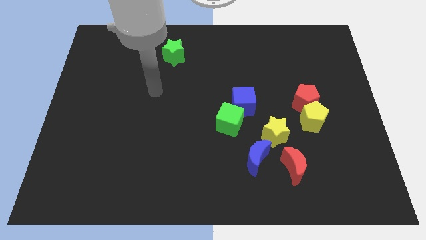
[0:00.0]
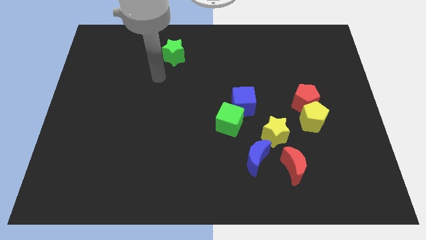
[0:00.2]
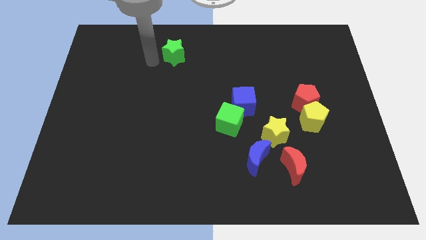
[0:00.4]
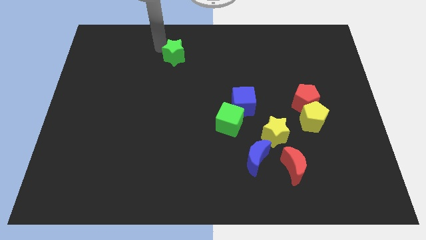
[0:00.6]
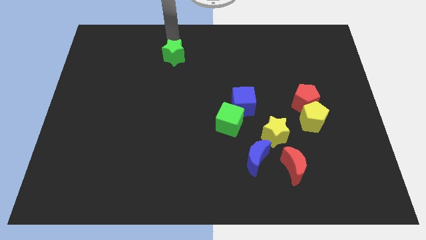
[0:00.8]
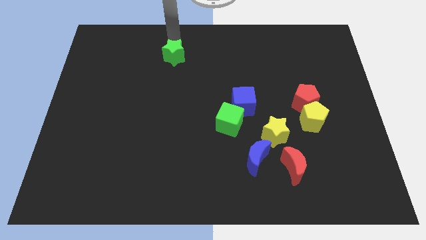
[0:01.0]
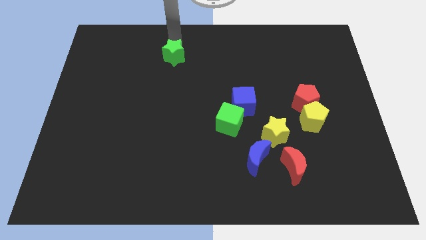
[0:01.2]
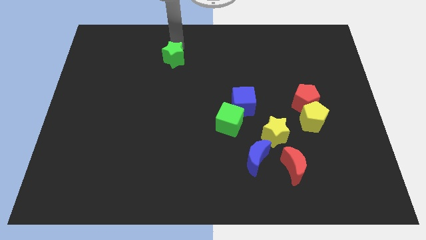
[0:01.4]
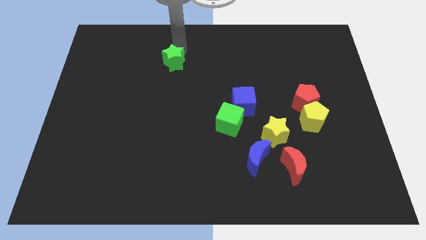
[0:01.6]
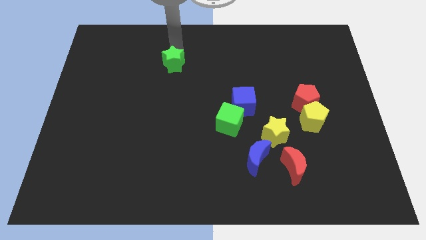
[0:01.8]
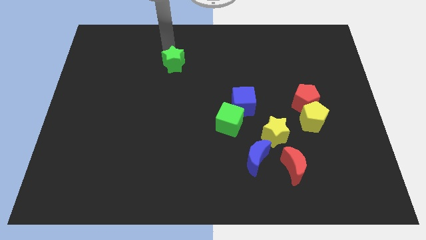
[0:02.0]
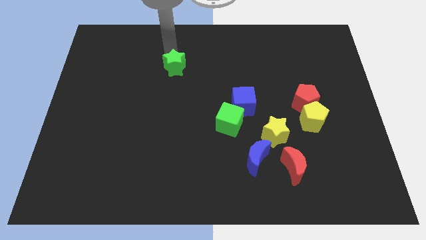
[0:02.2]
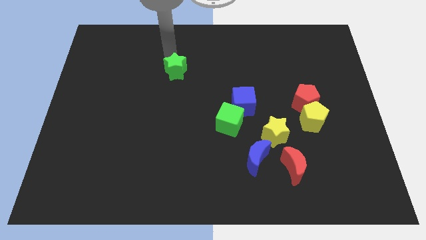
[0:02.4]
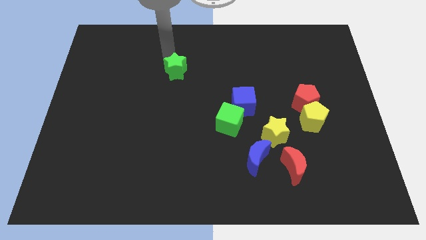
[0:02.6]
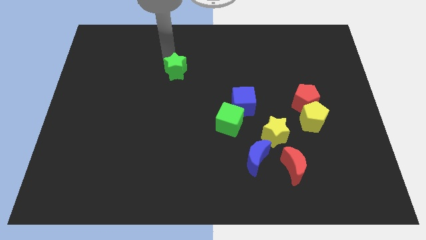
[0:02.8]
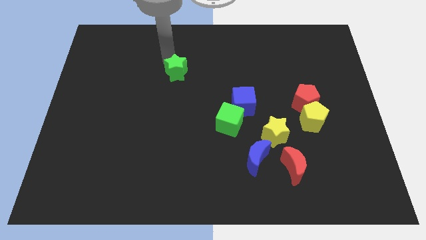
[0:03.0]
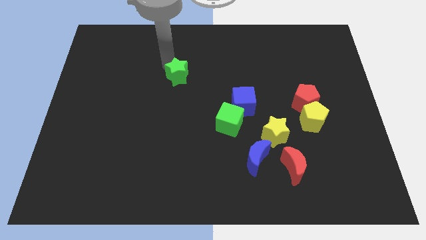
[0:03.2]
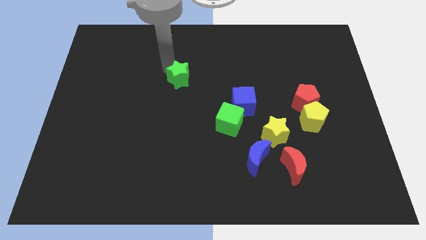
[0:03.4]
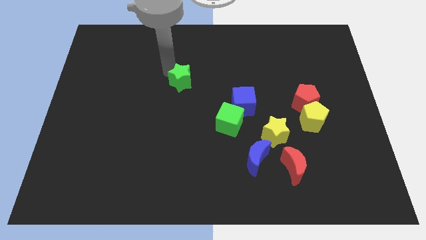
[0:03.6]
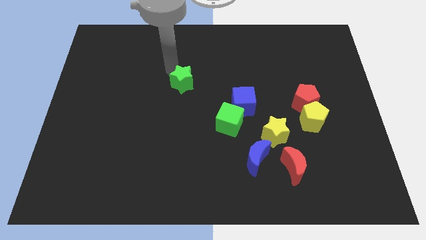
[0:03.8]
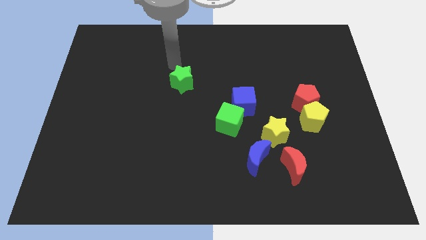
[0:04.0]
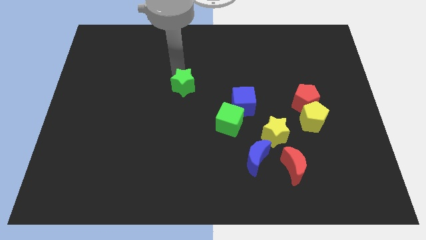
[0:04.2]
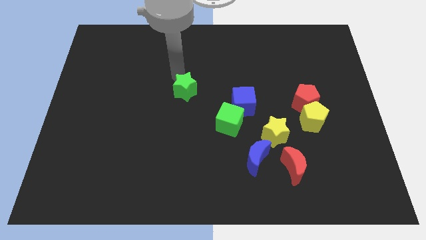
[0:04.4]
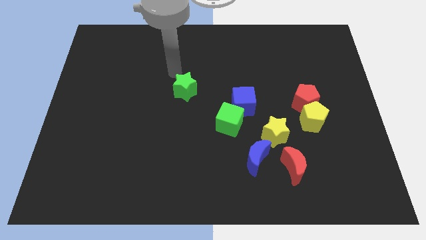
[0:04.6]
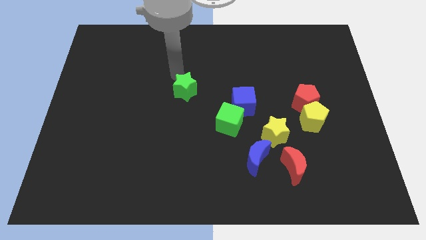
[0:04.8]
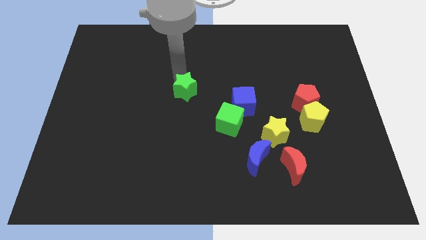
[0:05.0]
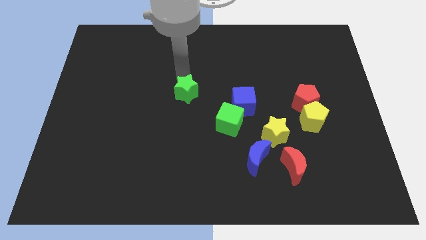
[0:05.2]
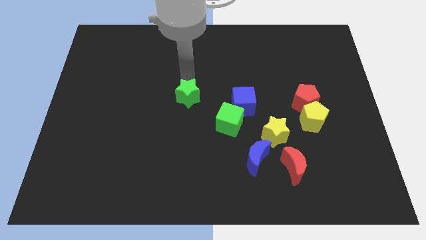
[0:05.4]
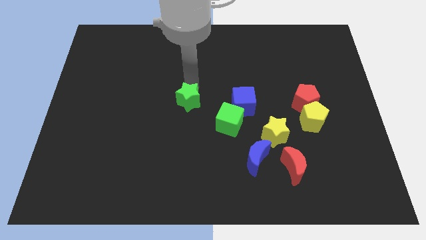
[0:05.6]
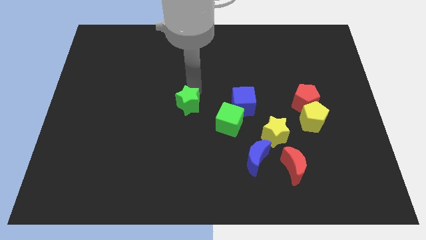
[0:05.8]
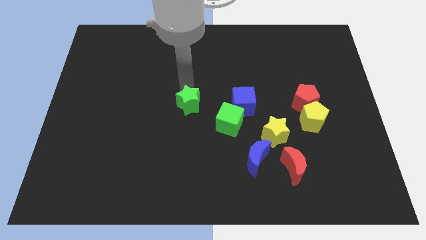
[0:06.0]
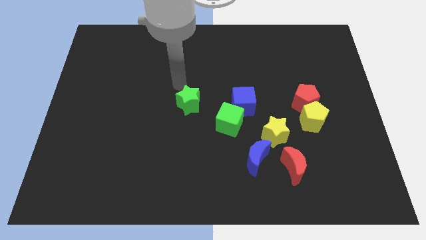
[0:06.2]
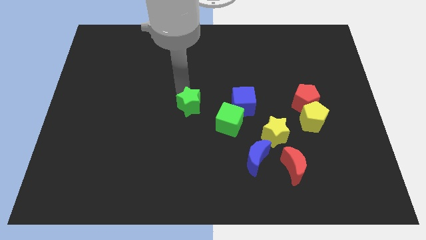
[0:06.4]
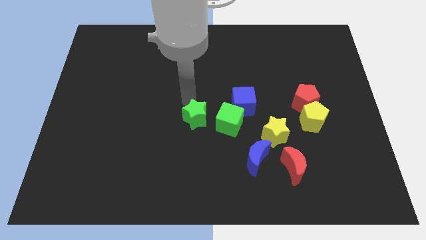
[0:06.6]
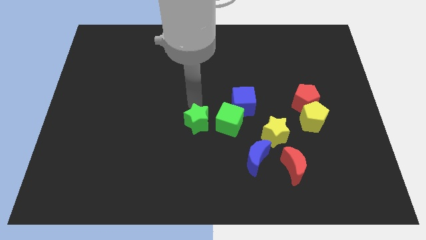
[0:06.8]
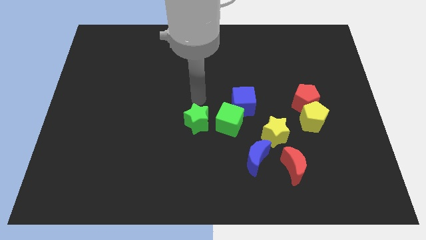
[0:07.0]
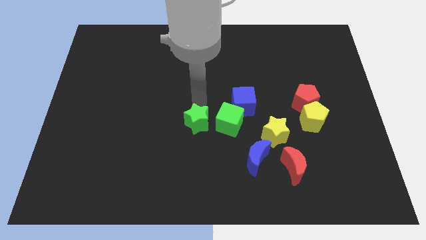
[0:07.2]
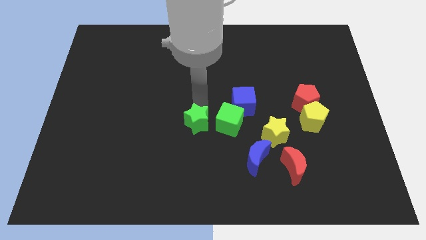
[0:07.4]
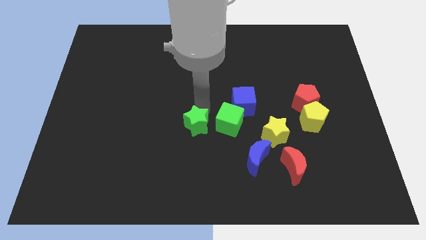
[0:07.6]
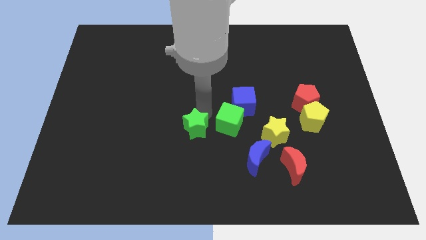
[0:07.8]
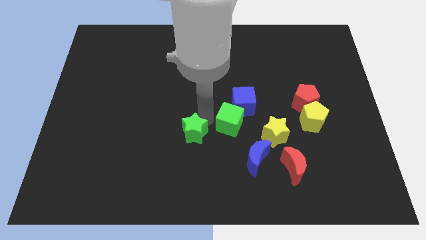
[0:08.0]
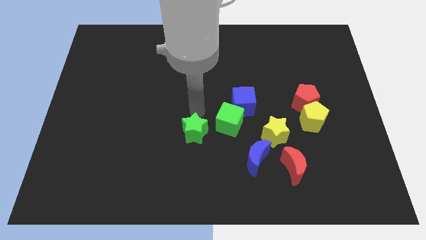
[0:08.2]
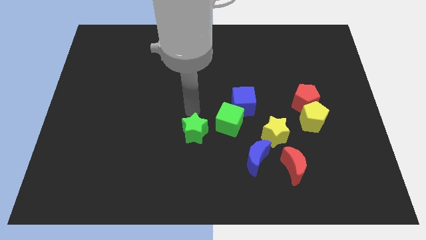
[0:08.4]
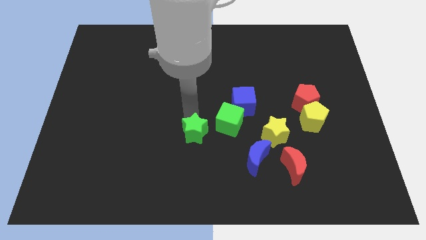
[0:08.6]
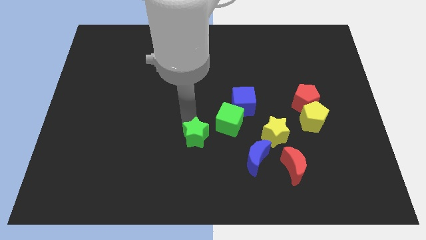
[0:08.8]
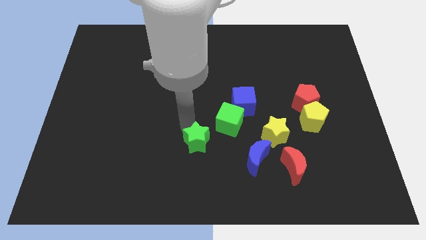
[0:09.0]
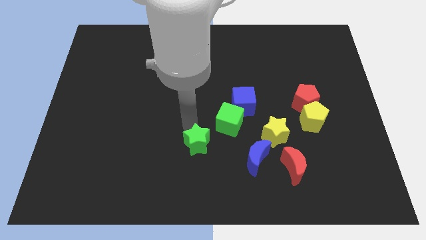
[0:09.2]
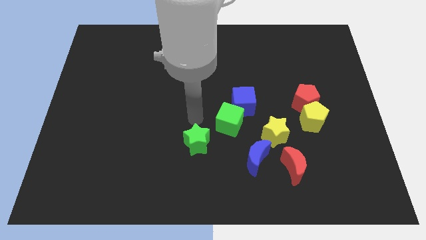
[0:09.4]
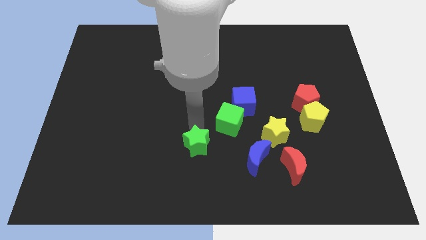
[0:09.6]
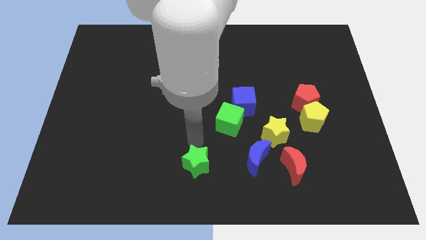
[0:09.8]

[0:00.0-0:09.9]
move the green star to the bottom

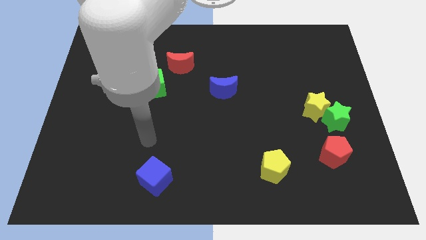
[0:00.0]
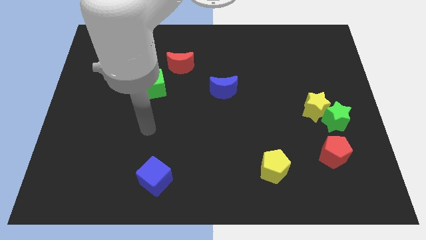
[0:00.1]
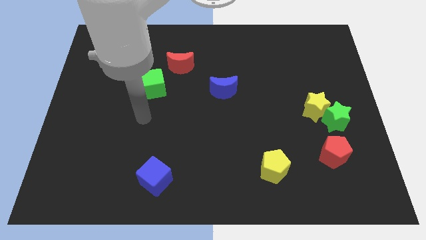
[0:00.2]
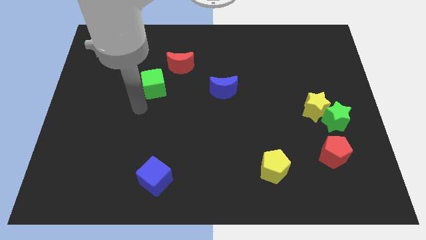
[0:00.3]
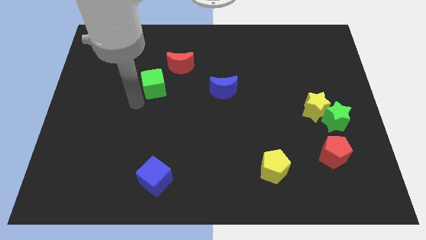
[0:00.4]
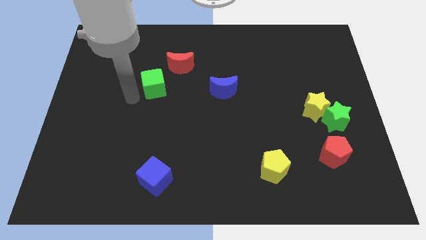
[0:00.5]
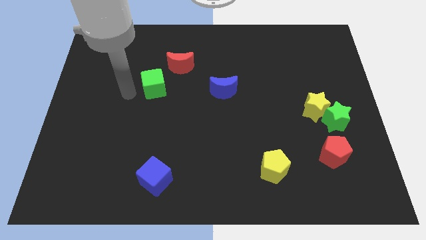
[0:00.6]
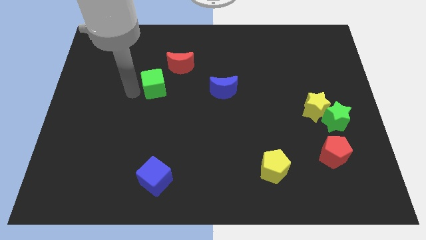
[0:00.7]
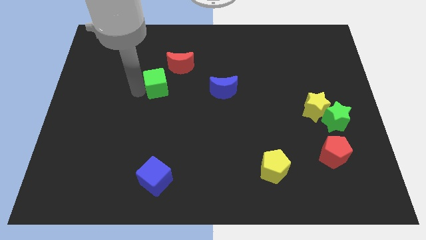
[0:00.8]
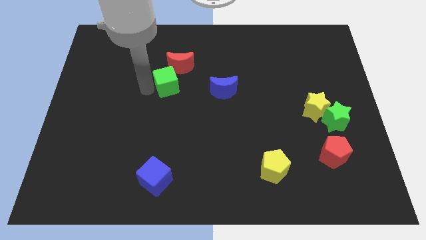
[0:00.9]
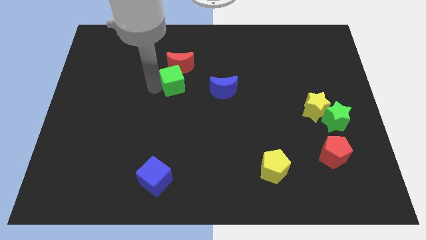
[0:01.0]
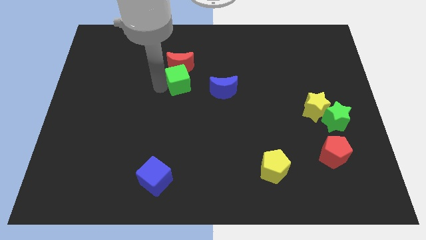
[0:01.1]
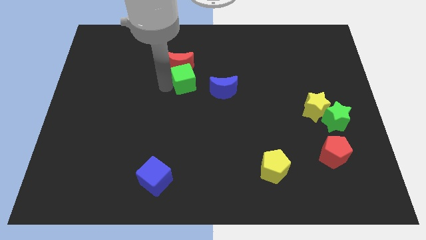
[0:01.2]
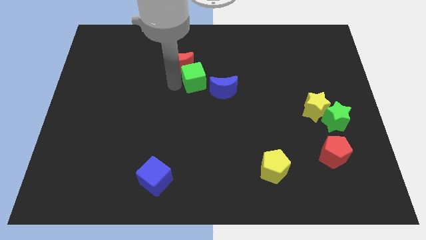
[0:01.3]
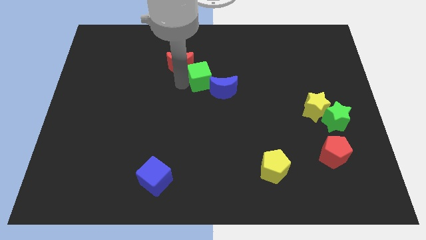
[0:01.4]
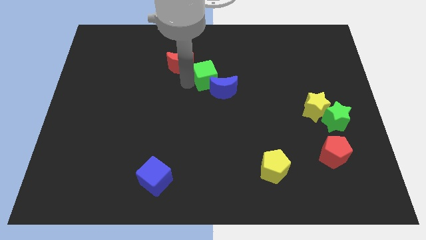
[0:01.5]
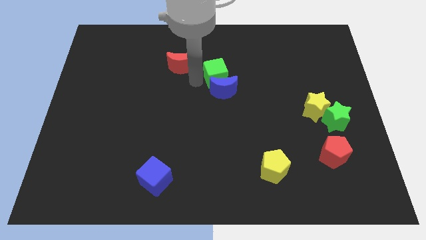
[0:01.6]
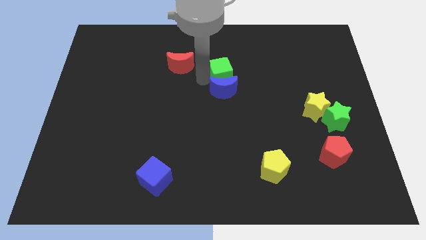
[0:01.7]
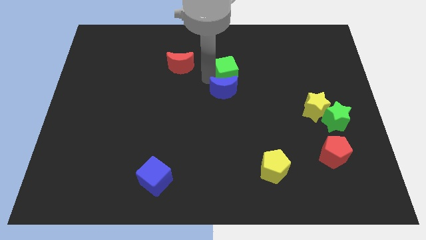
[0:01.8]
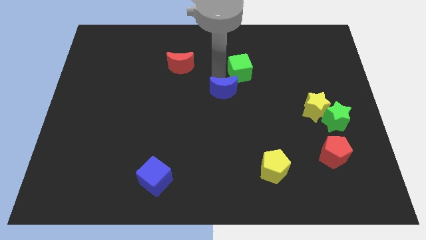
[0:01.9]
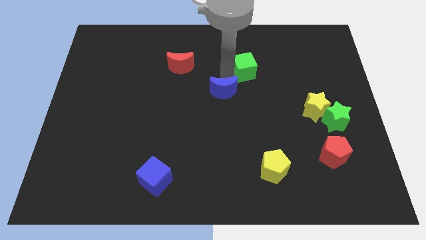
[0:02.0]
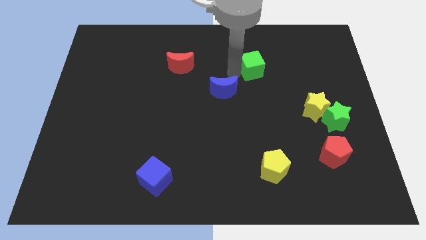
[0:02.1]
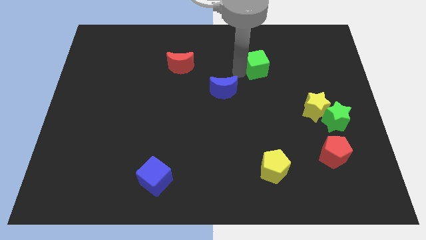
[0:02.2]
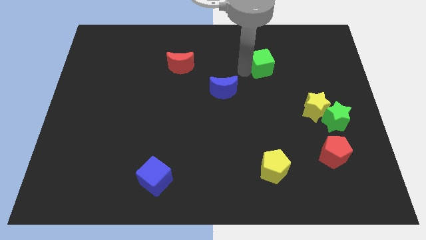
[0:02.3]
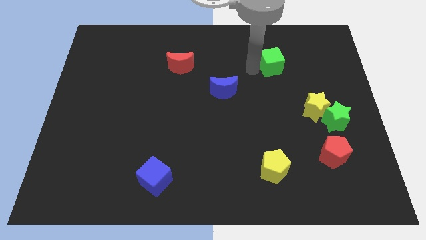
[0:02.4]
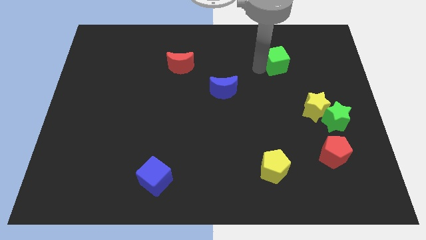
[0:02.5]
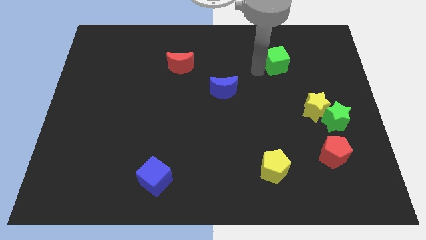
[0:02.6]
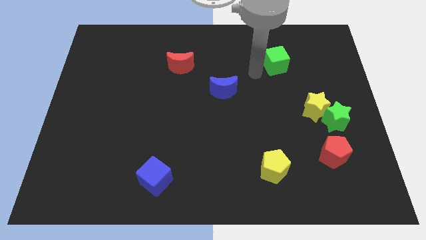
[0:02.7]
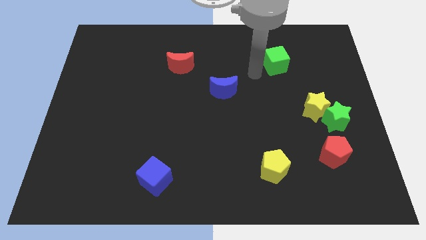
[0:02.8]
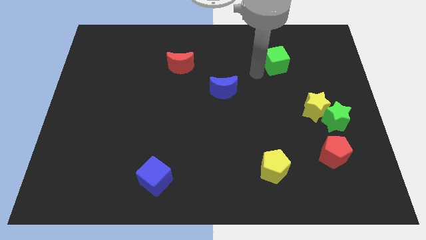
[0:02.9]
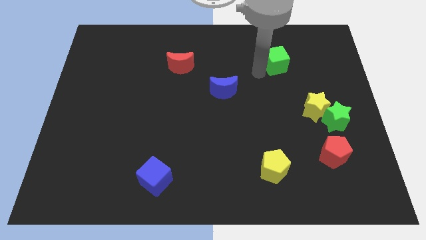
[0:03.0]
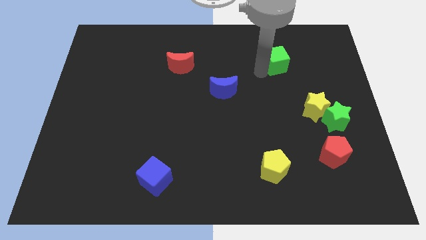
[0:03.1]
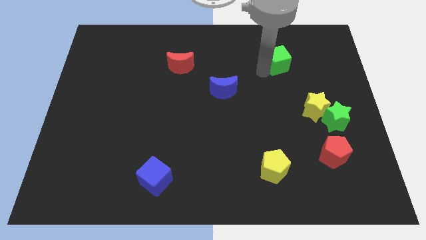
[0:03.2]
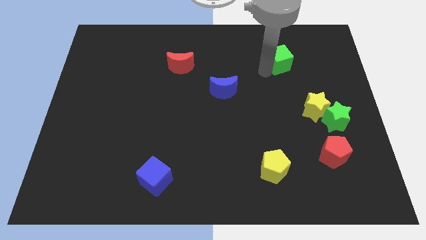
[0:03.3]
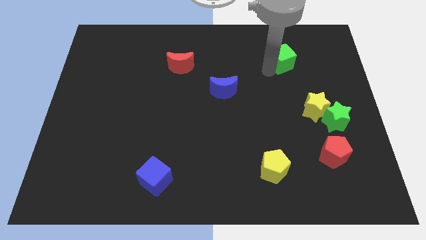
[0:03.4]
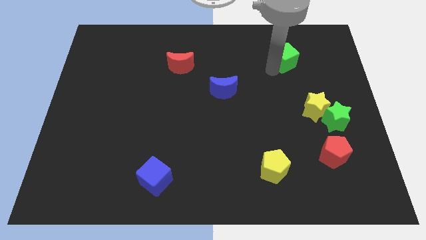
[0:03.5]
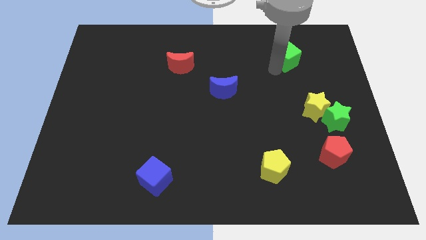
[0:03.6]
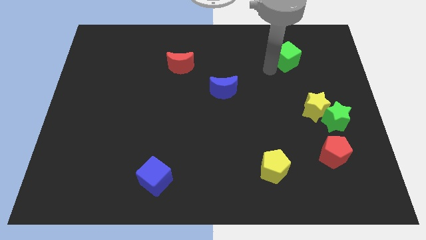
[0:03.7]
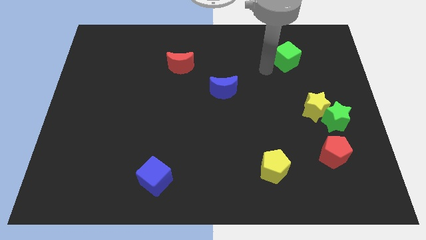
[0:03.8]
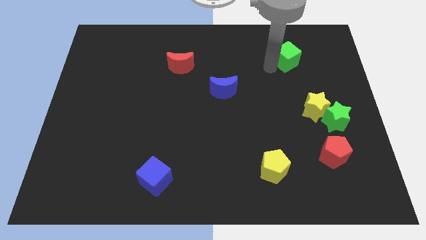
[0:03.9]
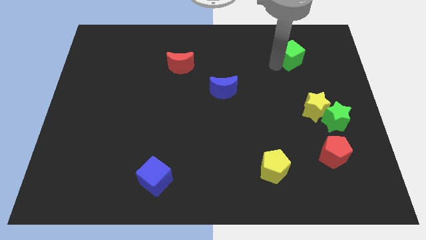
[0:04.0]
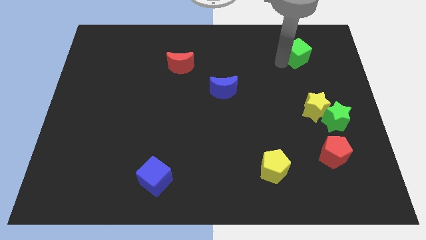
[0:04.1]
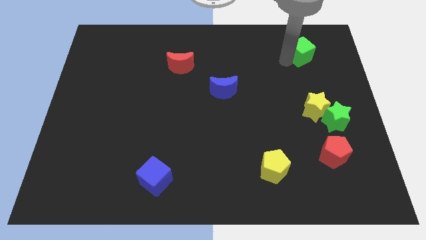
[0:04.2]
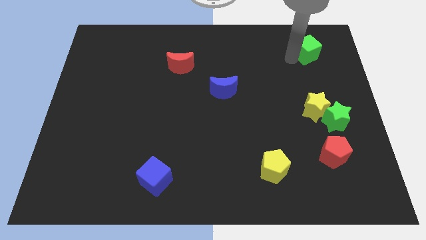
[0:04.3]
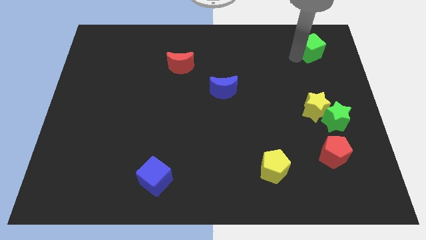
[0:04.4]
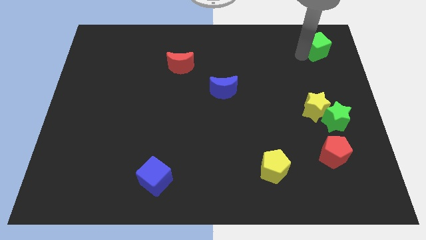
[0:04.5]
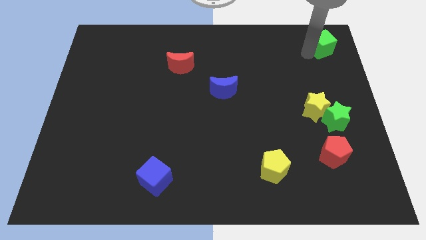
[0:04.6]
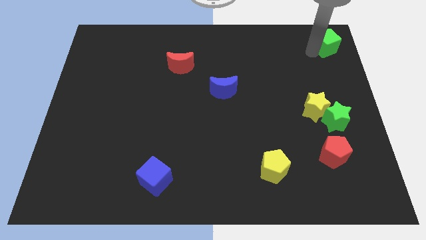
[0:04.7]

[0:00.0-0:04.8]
put the green cube to the top right of the board
